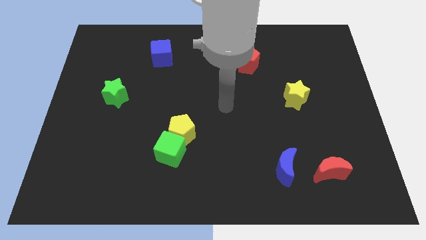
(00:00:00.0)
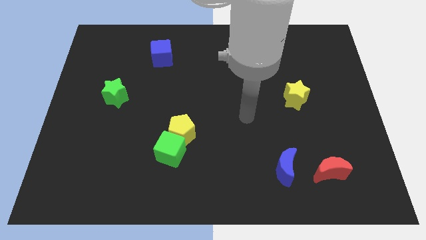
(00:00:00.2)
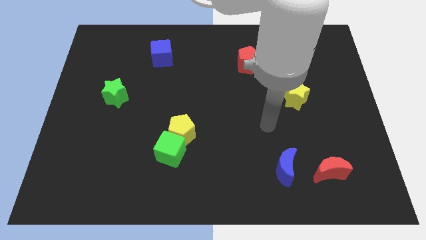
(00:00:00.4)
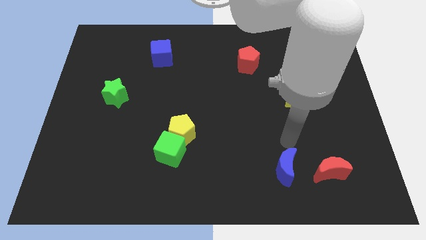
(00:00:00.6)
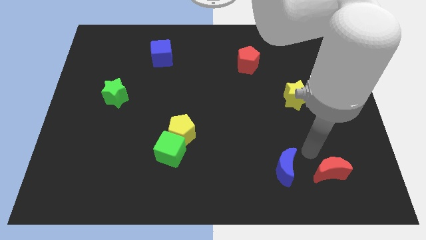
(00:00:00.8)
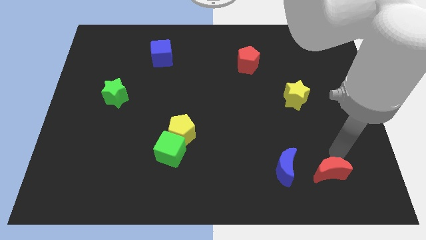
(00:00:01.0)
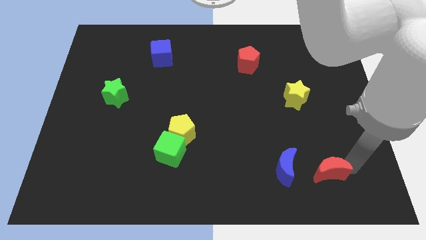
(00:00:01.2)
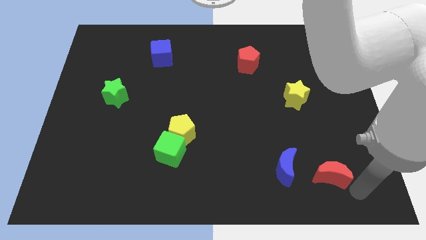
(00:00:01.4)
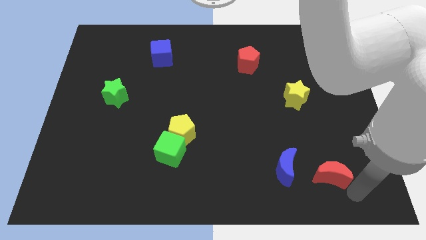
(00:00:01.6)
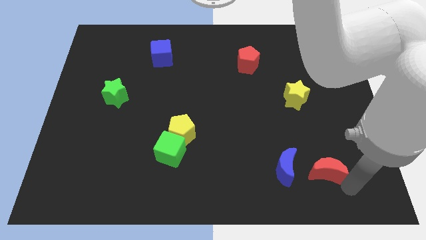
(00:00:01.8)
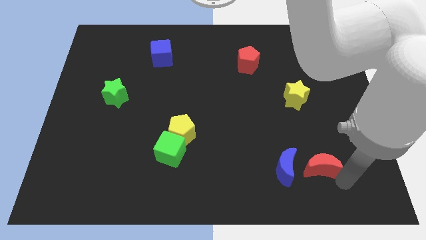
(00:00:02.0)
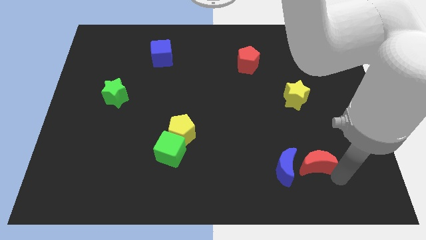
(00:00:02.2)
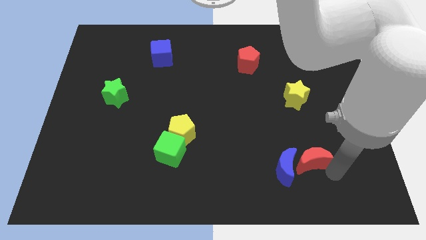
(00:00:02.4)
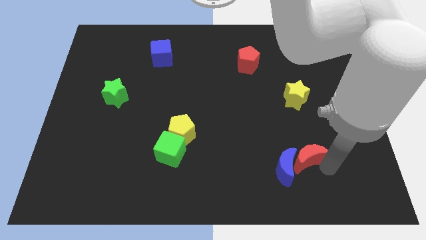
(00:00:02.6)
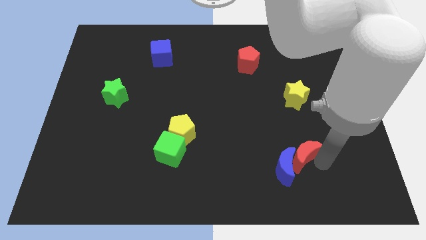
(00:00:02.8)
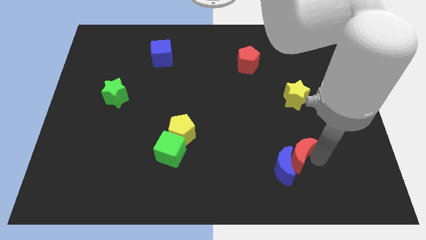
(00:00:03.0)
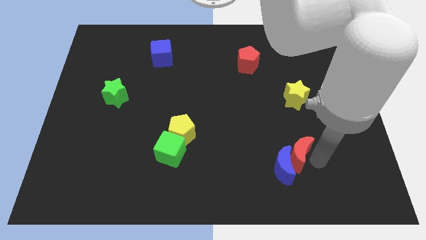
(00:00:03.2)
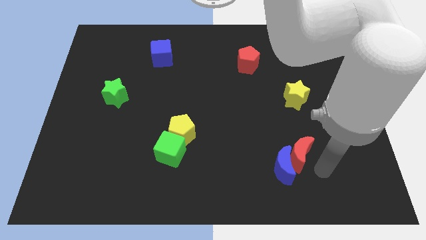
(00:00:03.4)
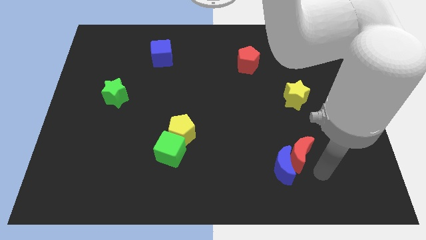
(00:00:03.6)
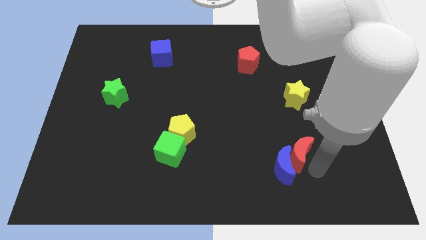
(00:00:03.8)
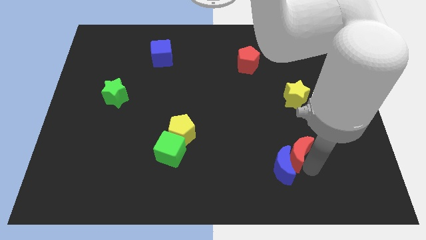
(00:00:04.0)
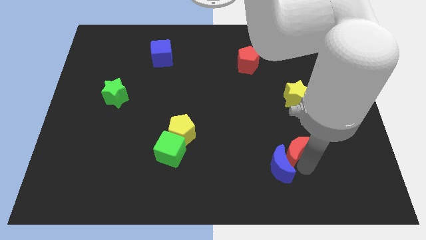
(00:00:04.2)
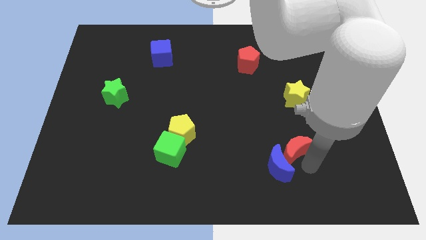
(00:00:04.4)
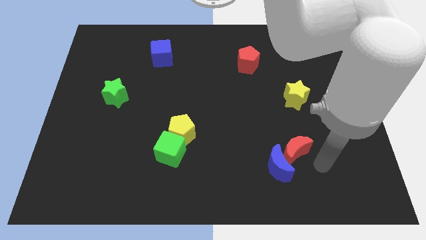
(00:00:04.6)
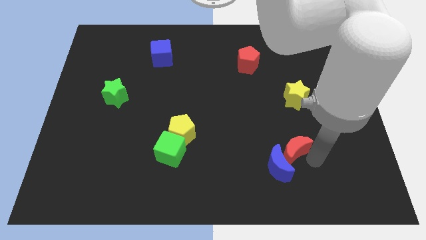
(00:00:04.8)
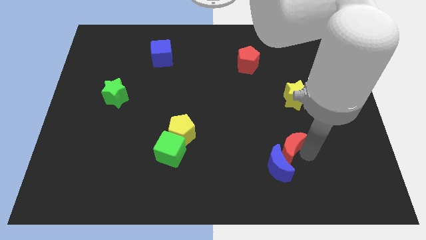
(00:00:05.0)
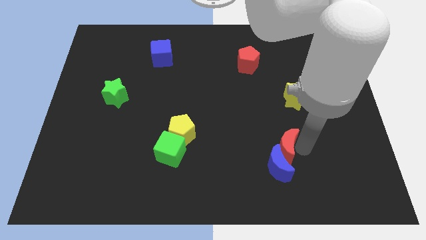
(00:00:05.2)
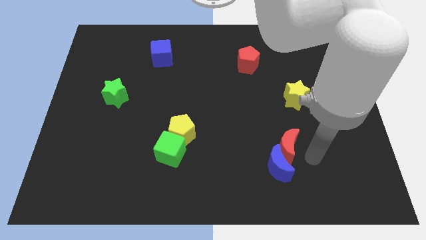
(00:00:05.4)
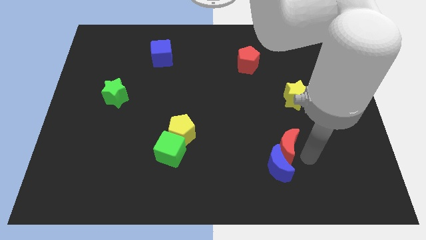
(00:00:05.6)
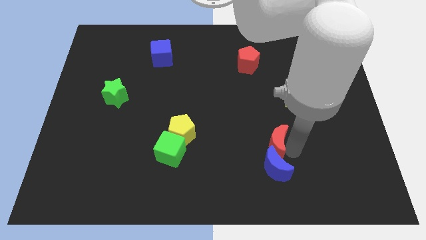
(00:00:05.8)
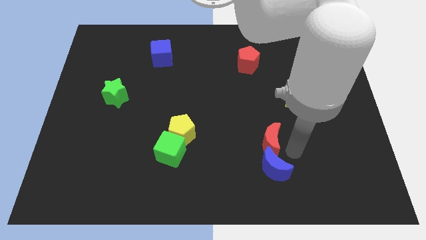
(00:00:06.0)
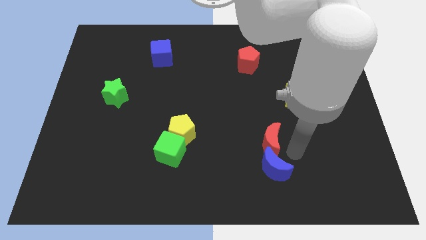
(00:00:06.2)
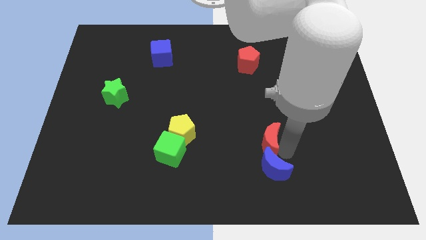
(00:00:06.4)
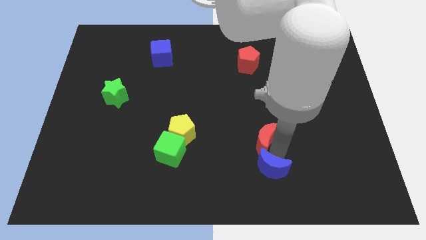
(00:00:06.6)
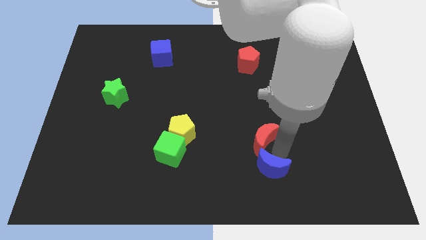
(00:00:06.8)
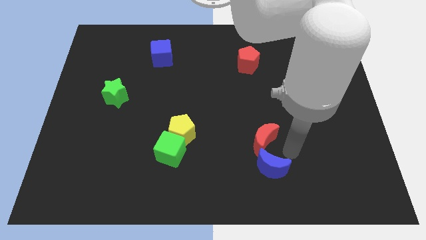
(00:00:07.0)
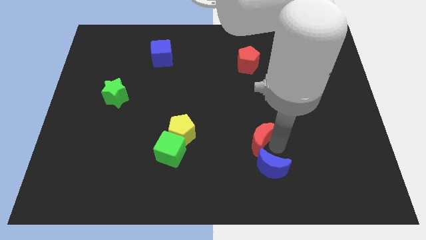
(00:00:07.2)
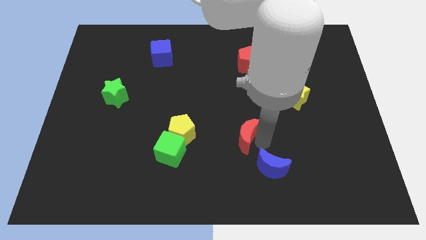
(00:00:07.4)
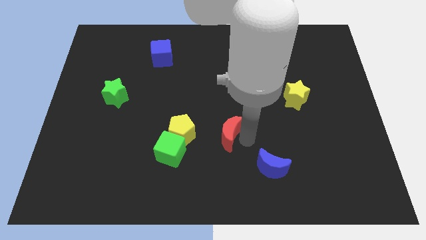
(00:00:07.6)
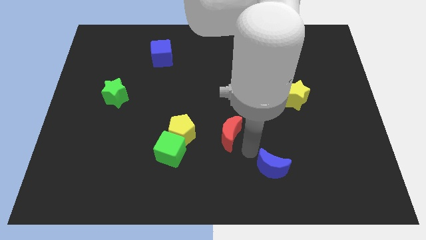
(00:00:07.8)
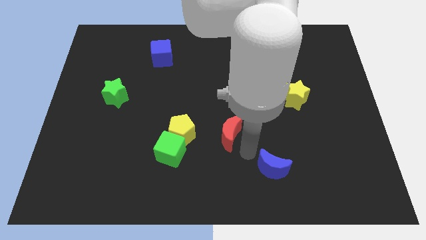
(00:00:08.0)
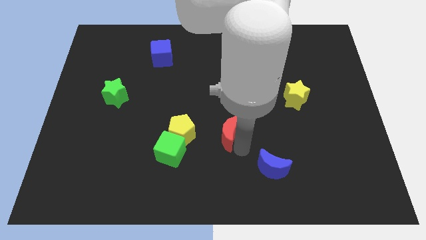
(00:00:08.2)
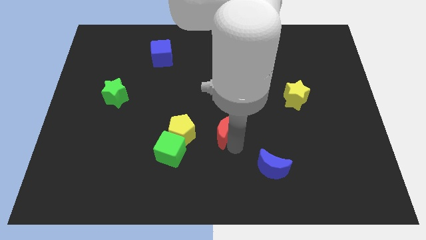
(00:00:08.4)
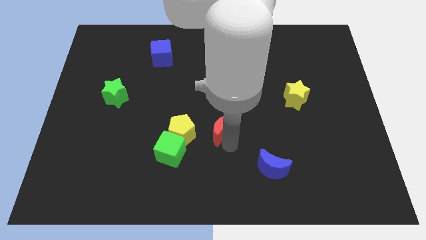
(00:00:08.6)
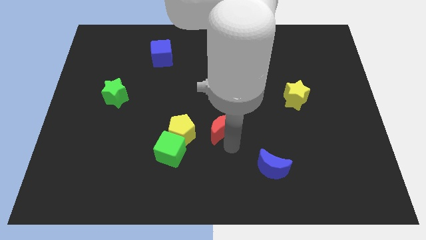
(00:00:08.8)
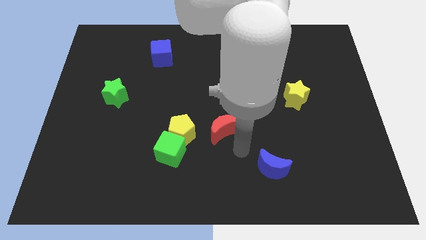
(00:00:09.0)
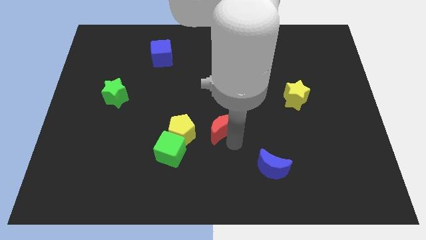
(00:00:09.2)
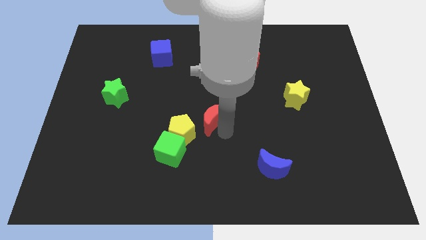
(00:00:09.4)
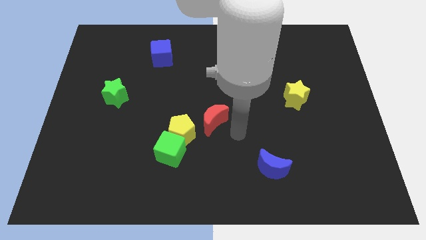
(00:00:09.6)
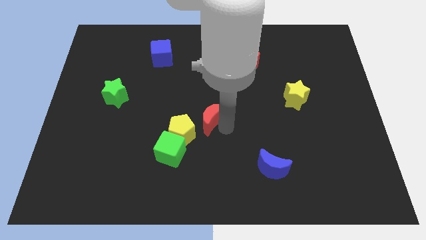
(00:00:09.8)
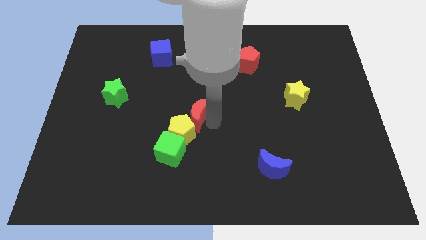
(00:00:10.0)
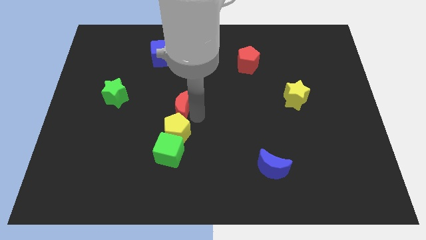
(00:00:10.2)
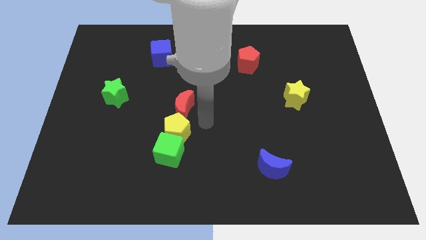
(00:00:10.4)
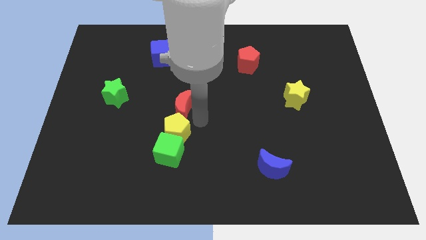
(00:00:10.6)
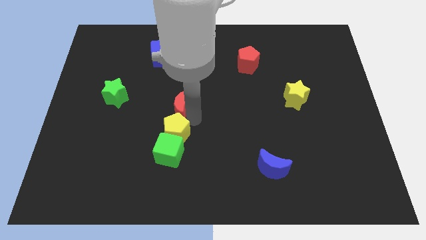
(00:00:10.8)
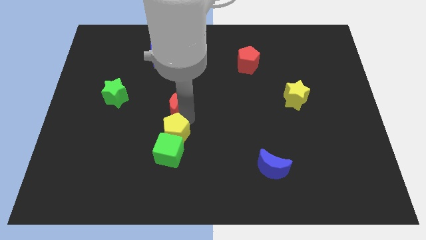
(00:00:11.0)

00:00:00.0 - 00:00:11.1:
push the red moon just right of the green star

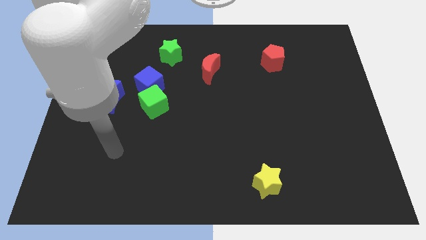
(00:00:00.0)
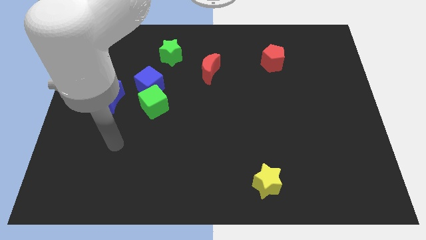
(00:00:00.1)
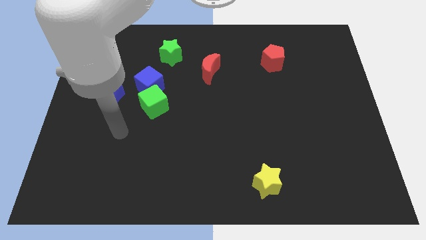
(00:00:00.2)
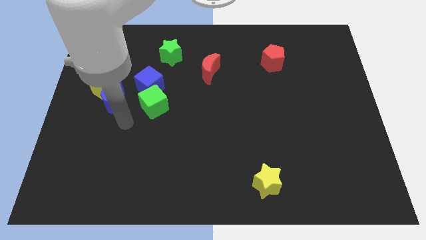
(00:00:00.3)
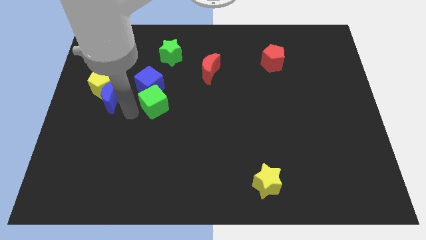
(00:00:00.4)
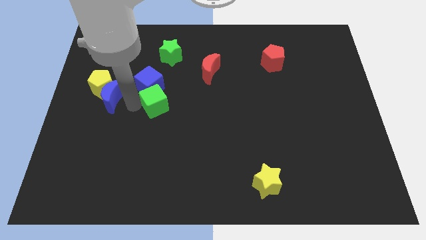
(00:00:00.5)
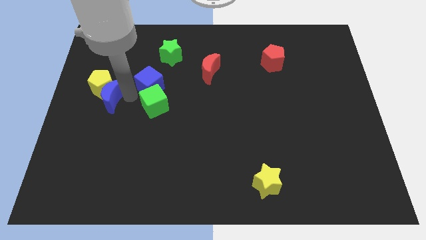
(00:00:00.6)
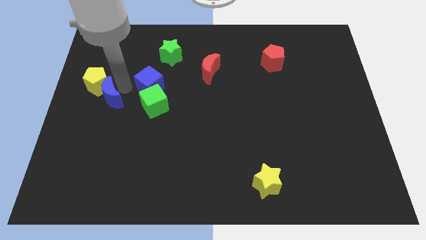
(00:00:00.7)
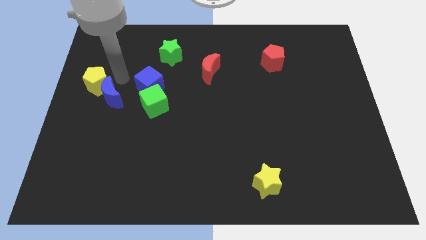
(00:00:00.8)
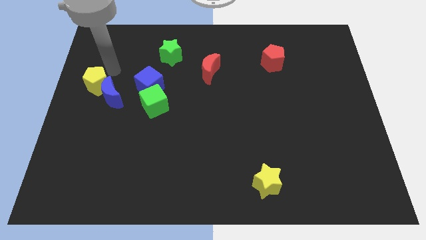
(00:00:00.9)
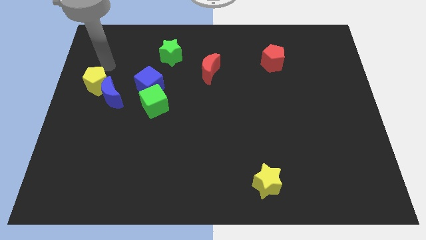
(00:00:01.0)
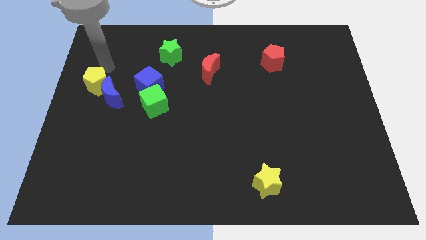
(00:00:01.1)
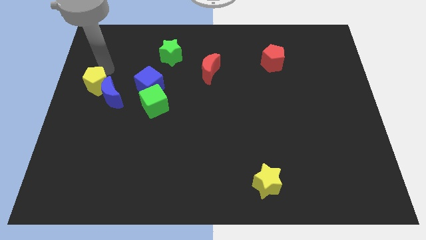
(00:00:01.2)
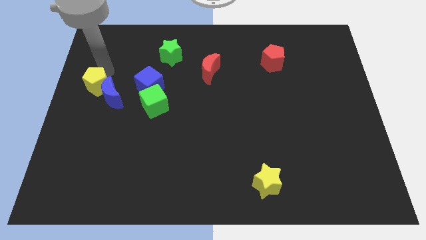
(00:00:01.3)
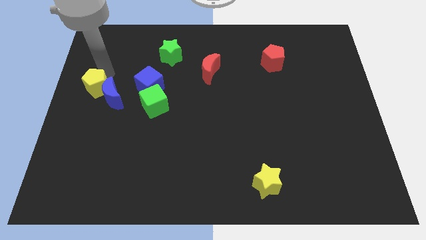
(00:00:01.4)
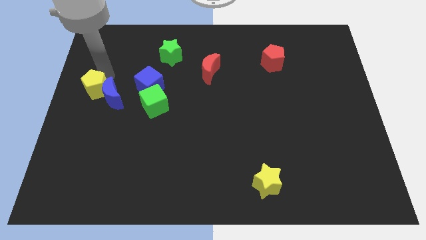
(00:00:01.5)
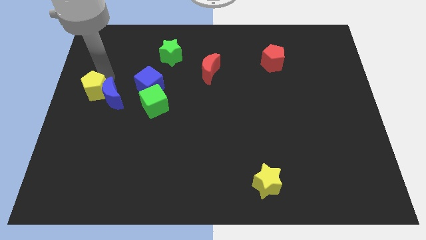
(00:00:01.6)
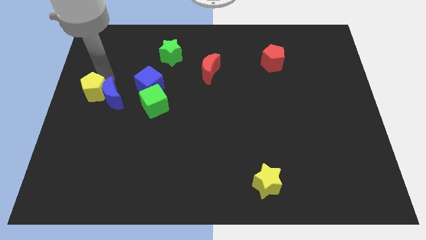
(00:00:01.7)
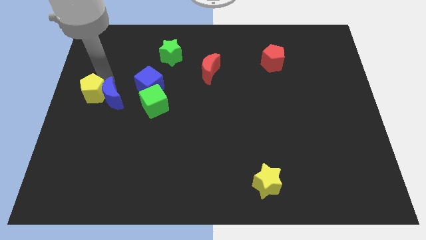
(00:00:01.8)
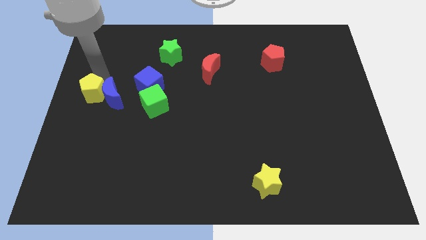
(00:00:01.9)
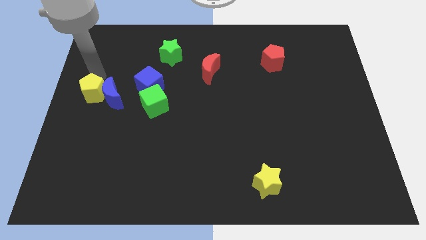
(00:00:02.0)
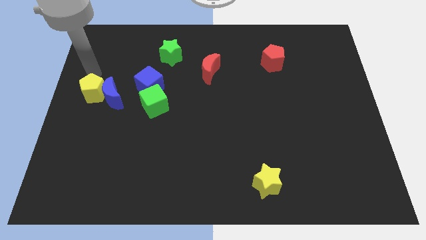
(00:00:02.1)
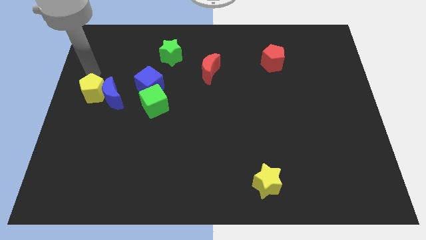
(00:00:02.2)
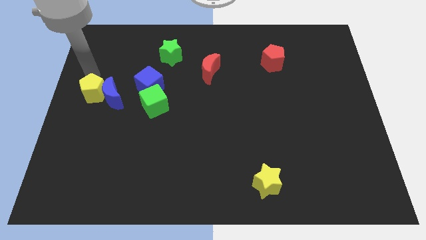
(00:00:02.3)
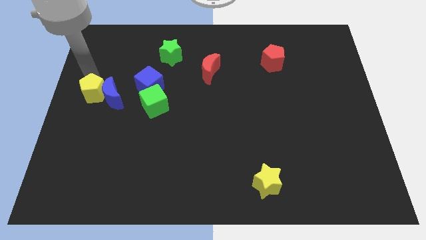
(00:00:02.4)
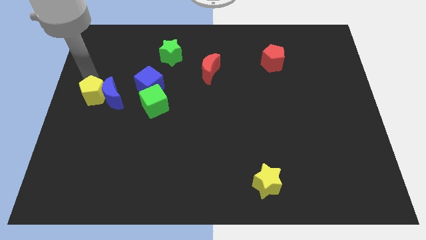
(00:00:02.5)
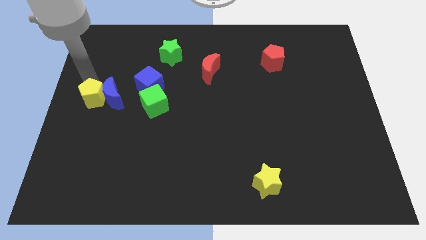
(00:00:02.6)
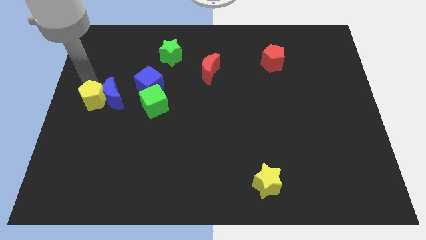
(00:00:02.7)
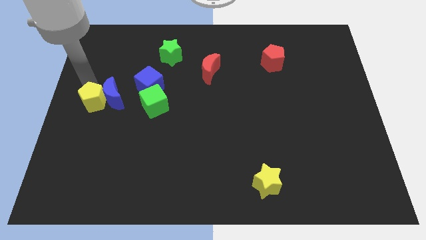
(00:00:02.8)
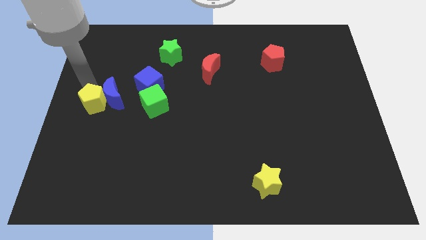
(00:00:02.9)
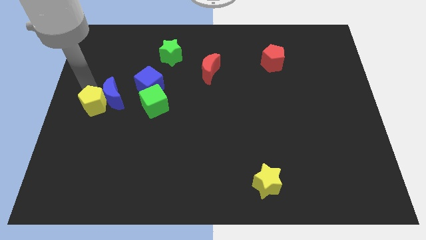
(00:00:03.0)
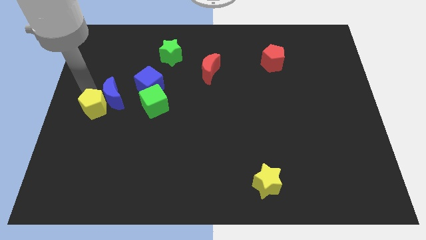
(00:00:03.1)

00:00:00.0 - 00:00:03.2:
move the yellow pentagon below the blue moon
